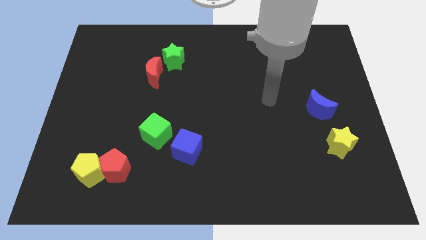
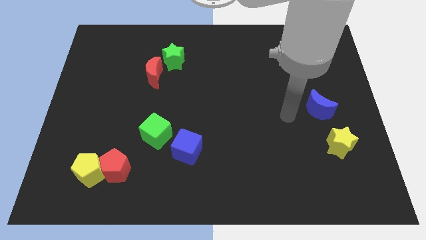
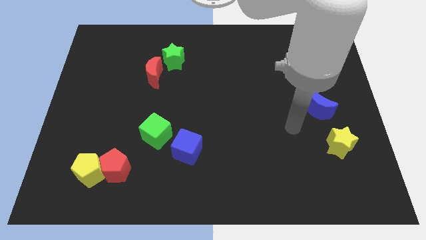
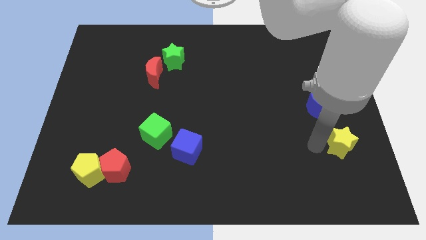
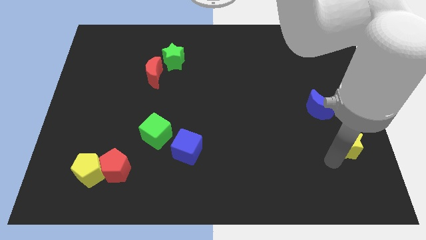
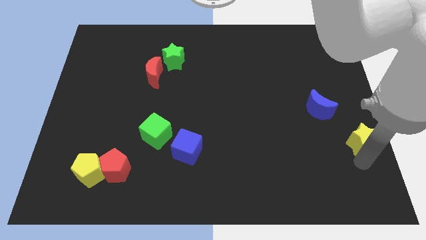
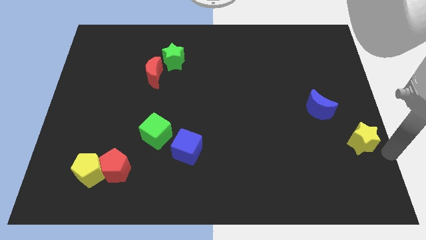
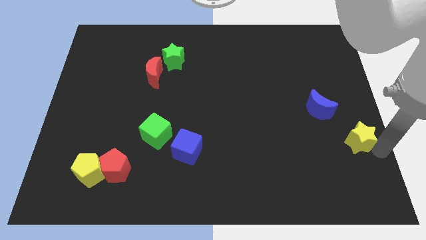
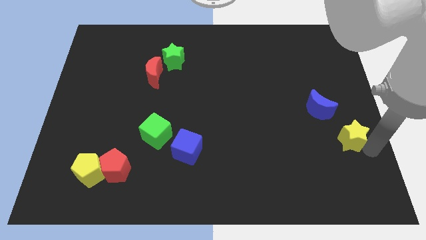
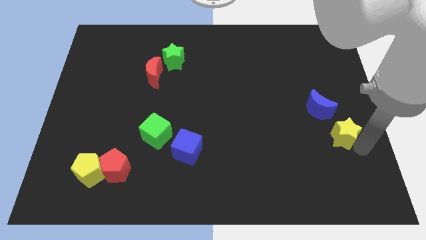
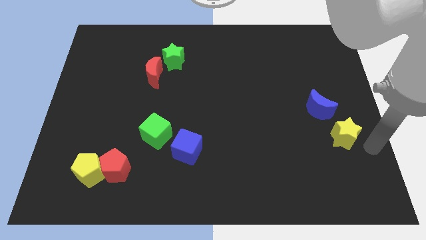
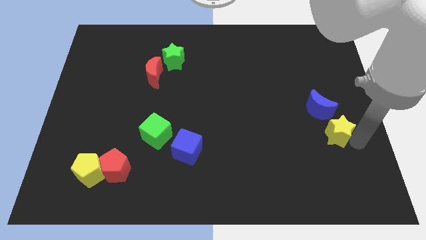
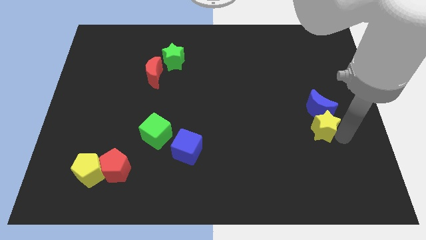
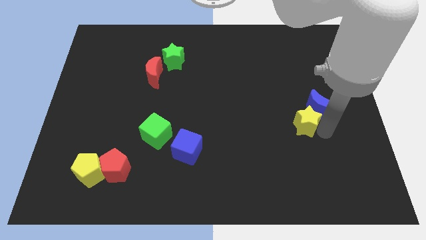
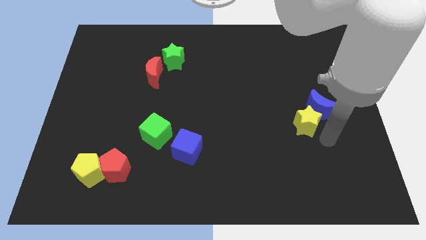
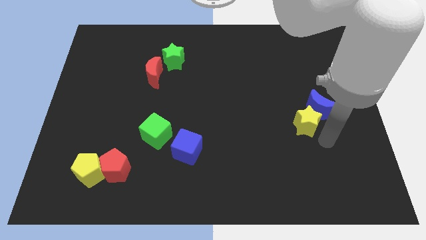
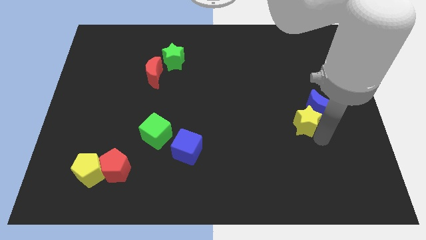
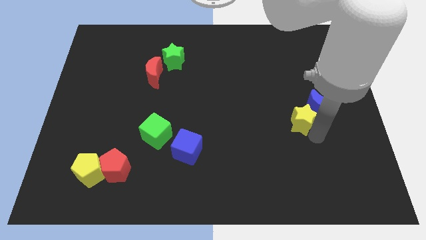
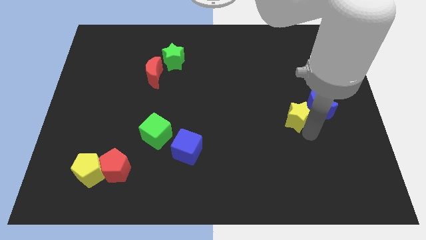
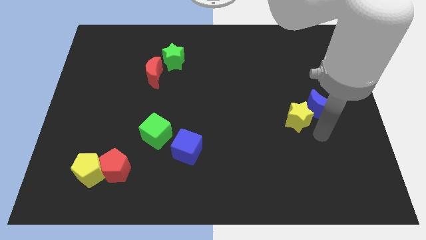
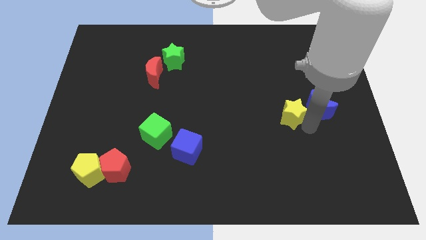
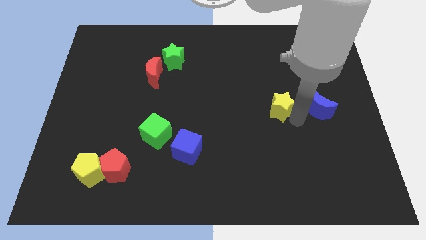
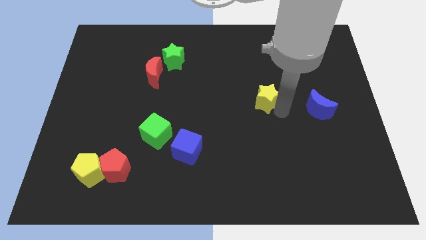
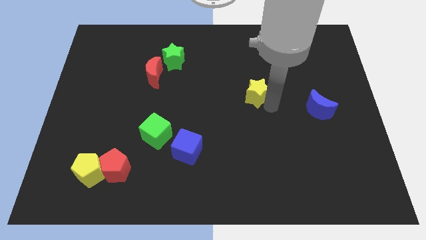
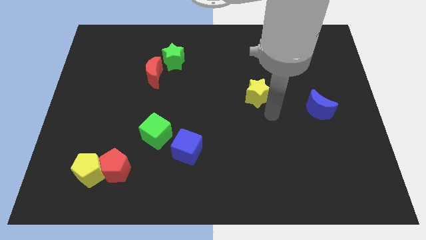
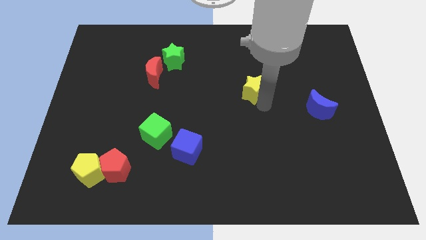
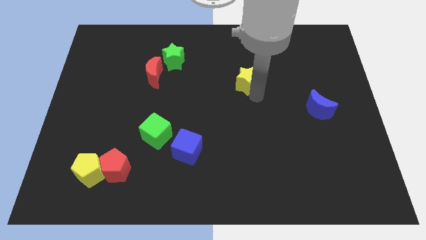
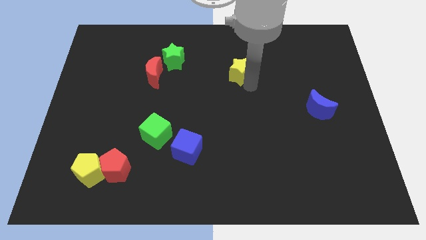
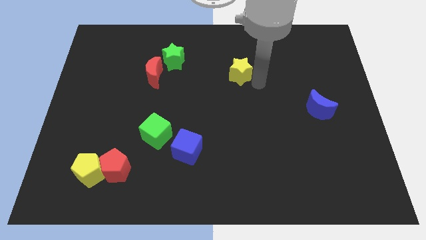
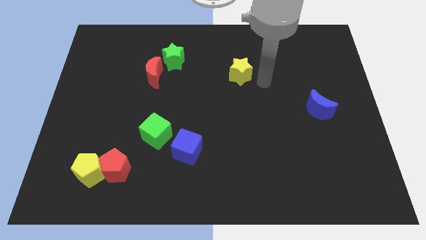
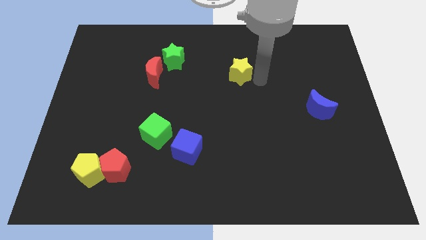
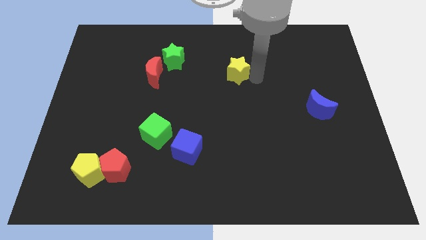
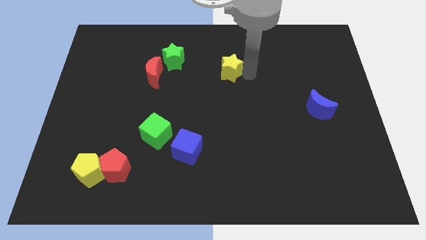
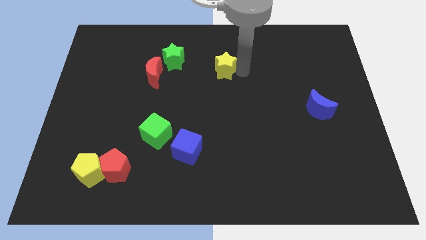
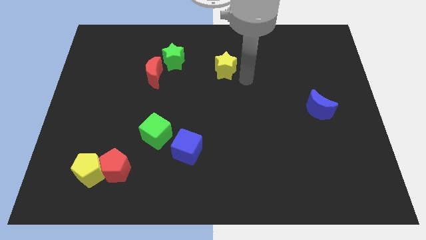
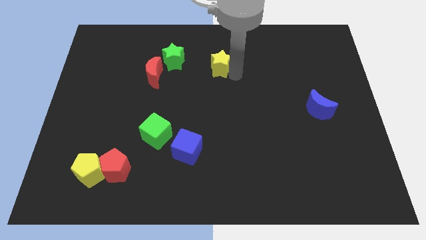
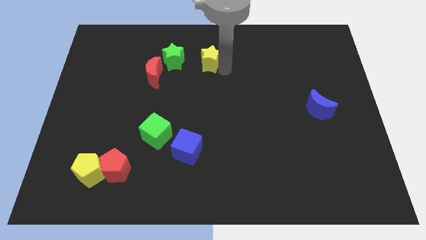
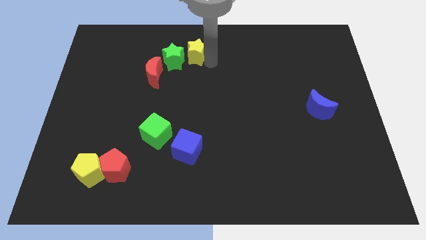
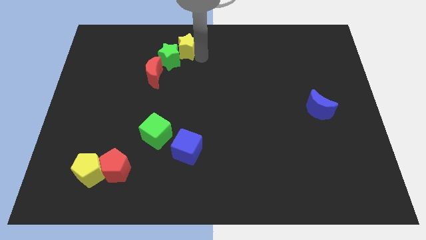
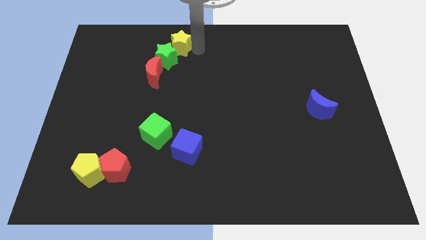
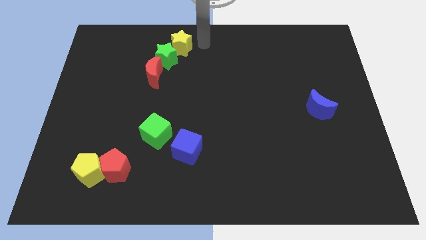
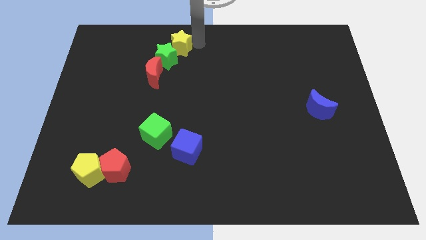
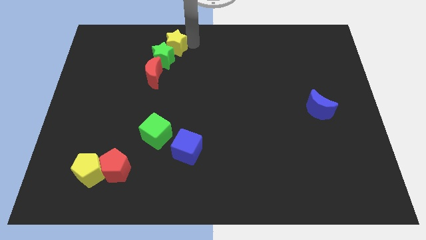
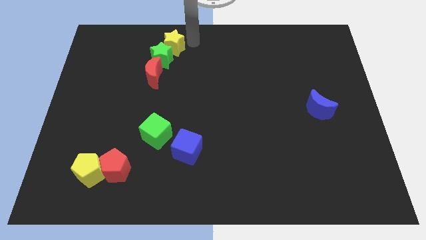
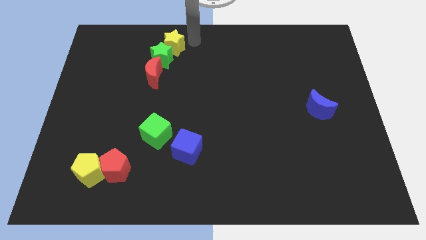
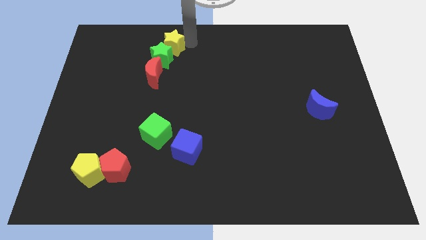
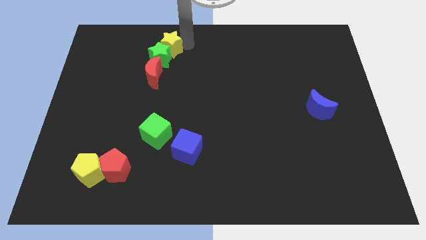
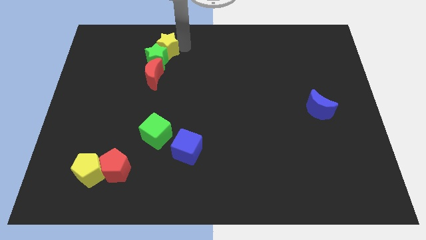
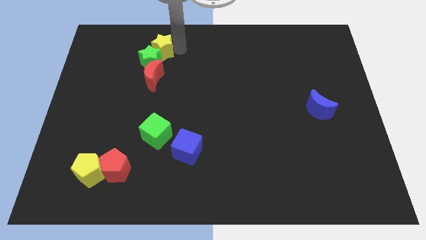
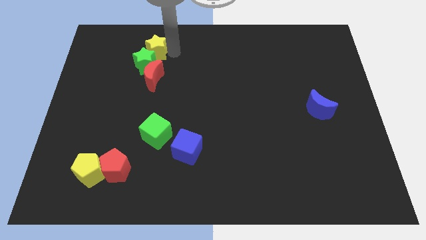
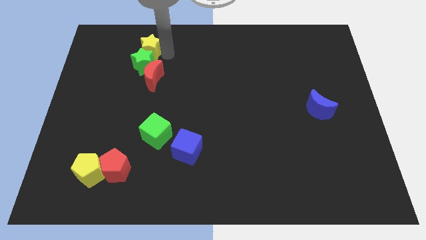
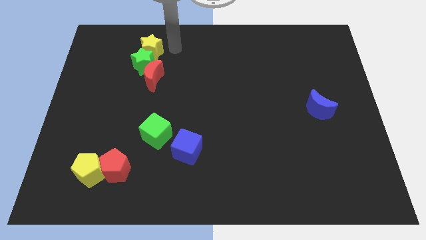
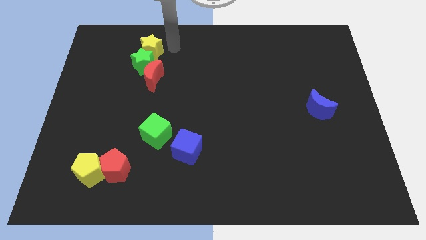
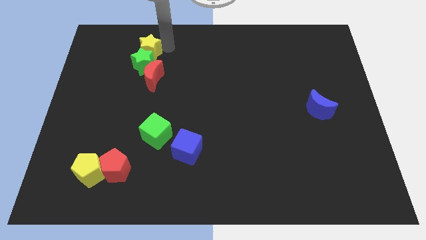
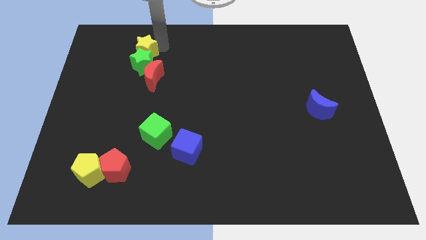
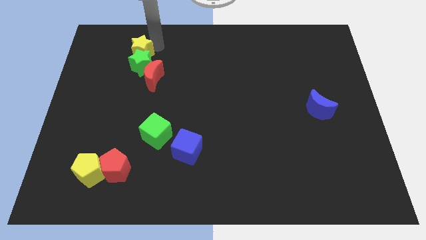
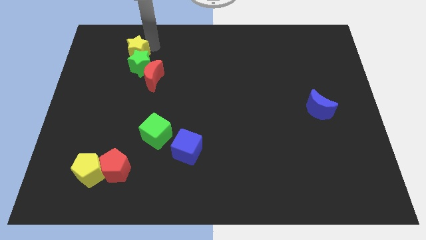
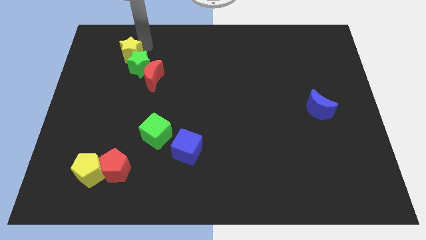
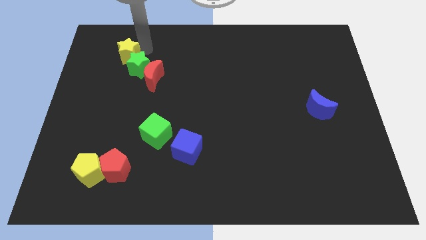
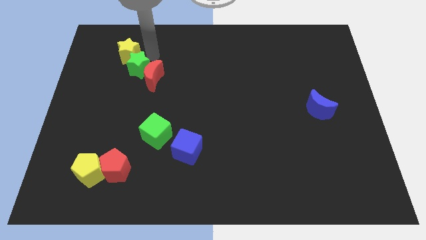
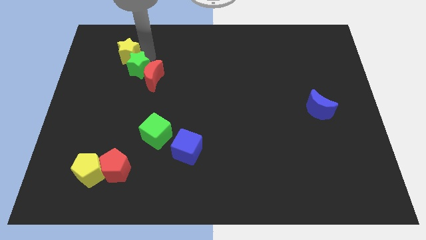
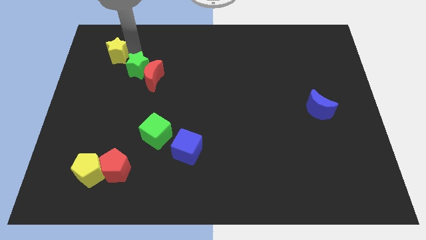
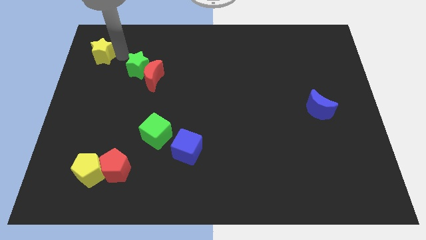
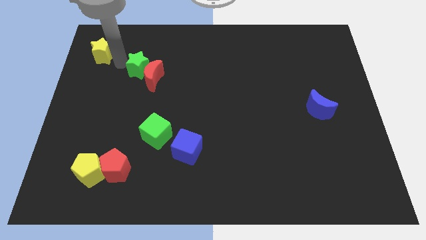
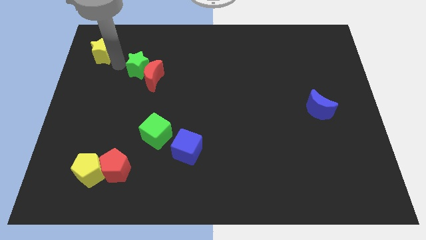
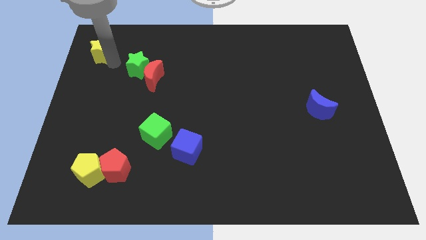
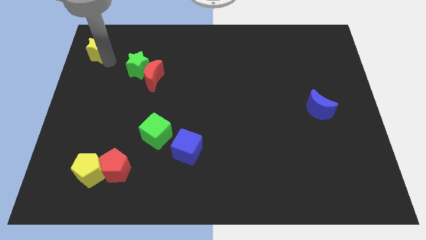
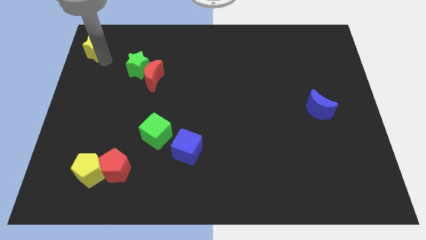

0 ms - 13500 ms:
slide the yellow star to the top left
